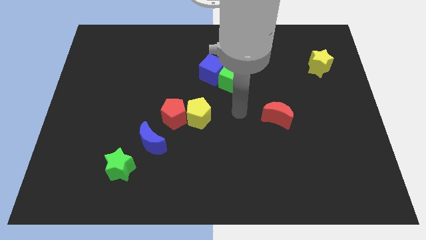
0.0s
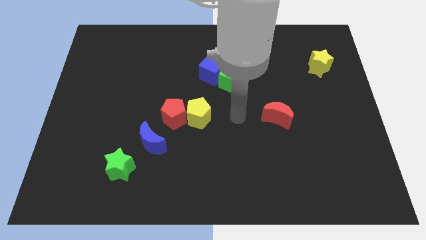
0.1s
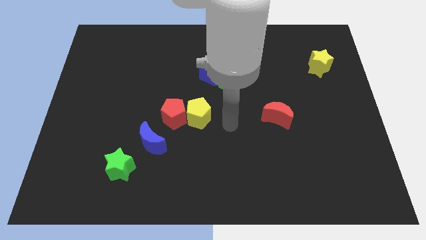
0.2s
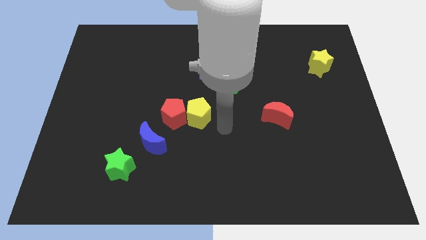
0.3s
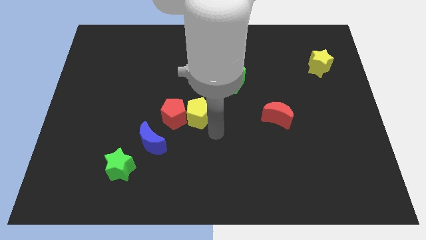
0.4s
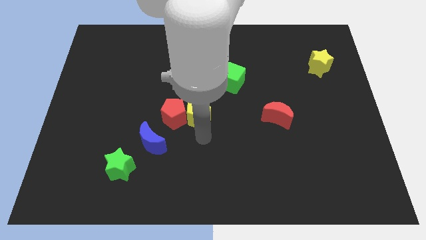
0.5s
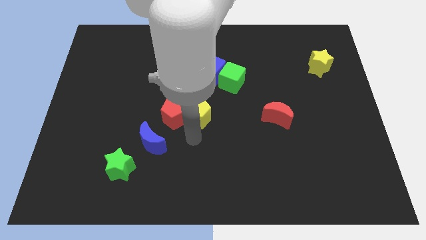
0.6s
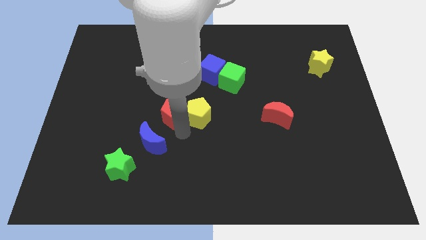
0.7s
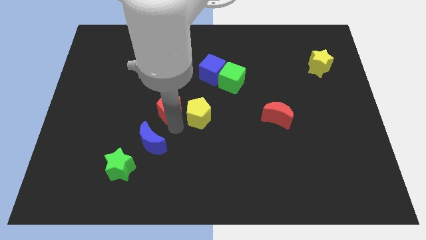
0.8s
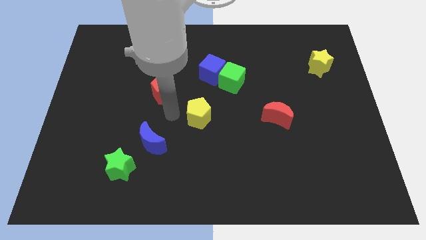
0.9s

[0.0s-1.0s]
move the yellow pentagon away from the red pentagon

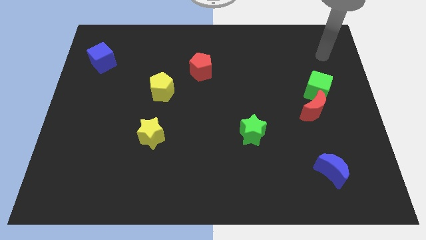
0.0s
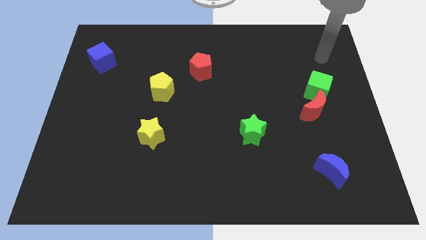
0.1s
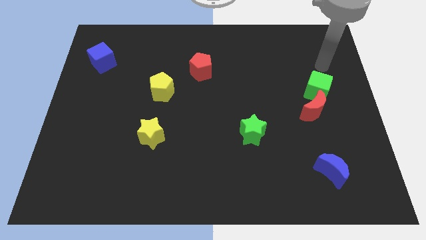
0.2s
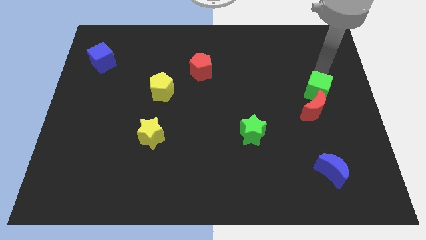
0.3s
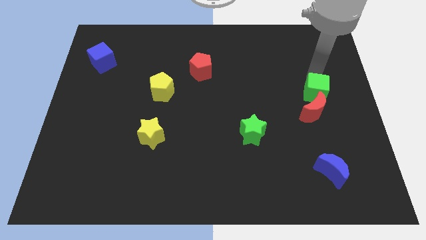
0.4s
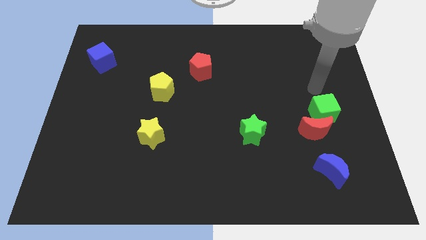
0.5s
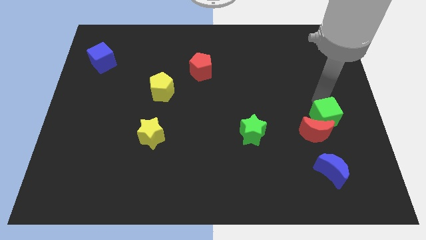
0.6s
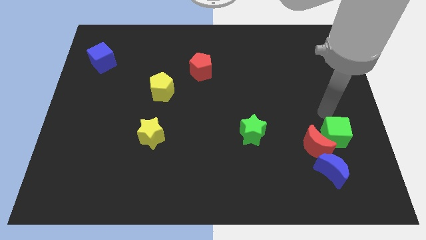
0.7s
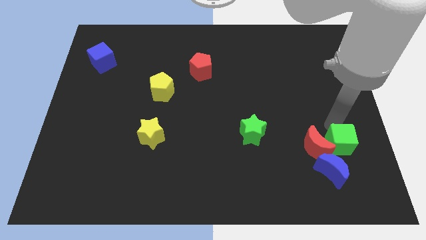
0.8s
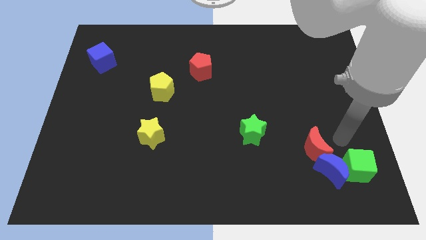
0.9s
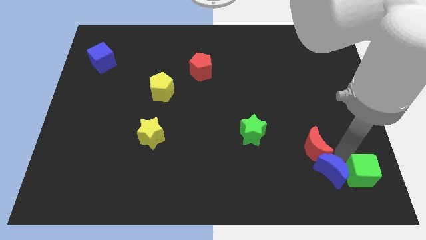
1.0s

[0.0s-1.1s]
move the red moon away from the green cube

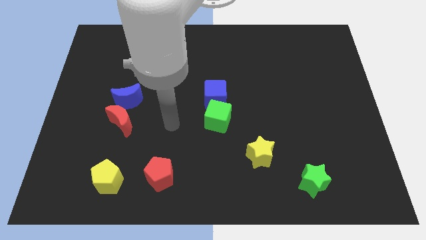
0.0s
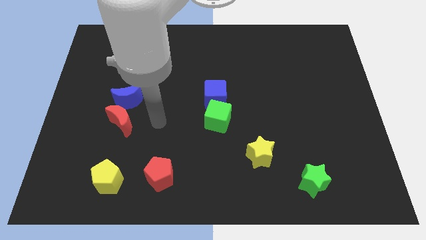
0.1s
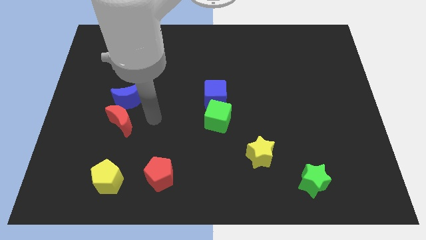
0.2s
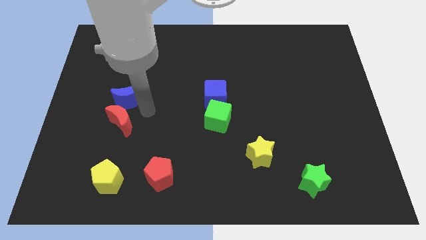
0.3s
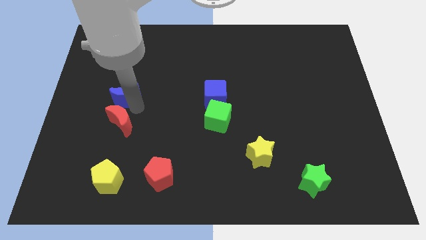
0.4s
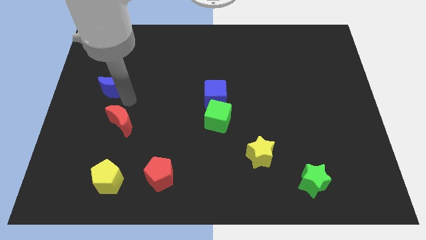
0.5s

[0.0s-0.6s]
move the red moon away from the blue moon

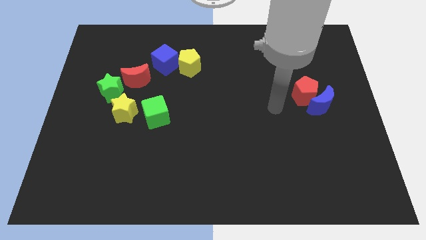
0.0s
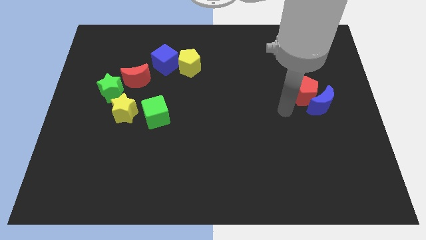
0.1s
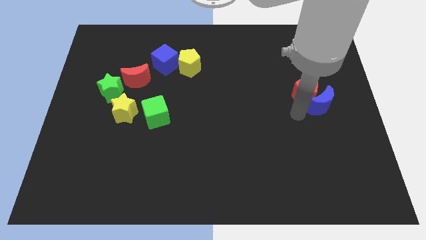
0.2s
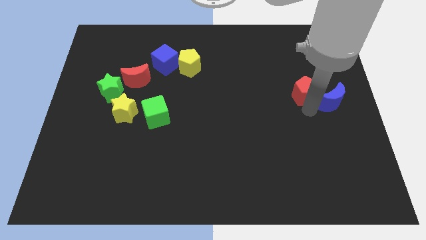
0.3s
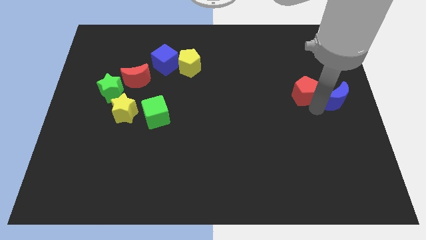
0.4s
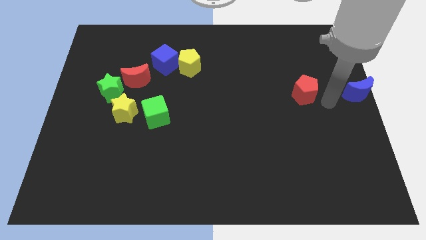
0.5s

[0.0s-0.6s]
separate the red pentagon from the blue moon

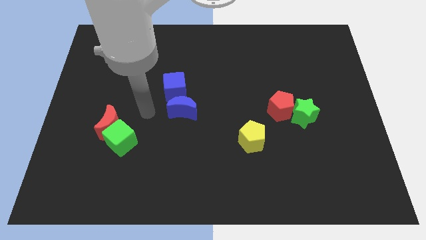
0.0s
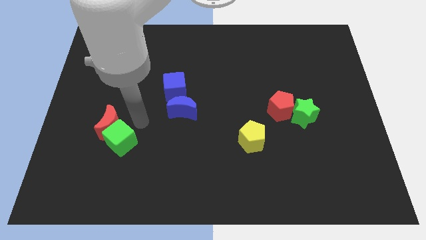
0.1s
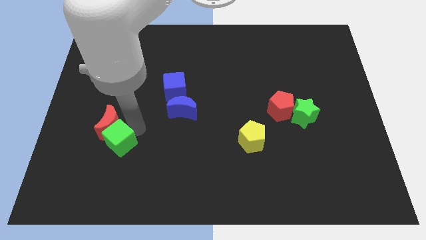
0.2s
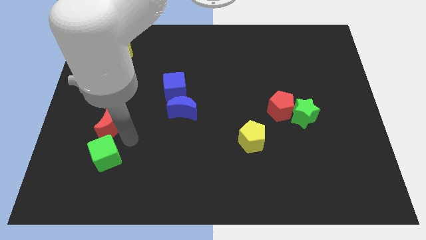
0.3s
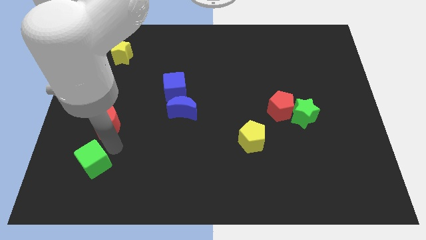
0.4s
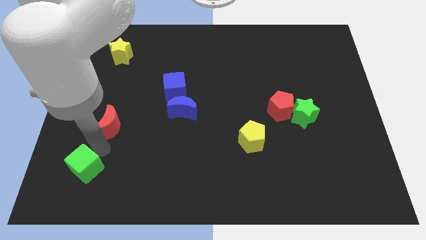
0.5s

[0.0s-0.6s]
separate the red moon from the green cube

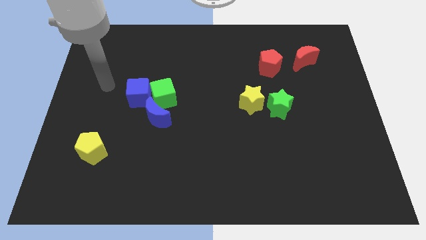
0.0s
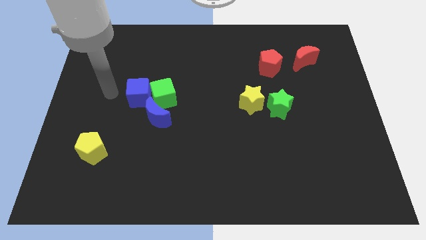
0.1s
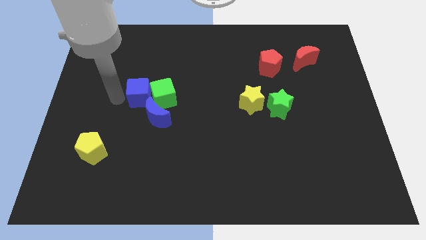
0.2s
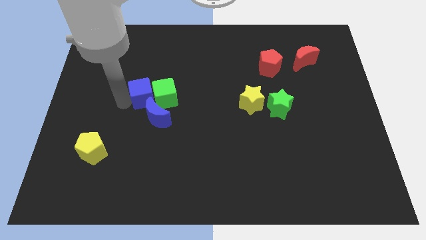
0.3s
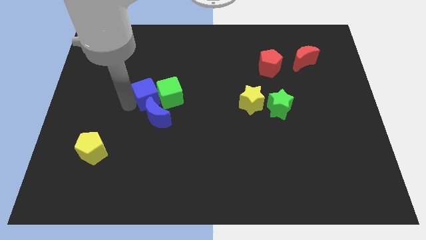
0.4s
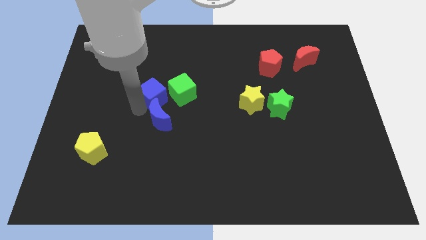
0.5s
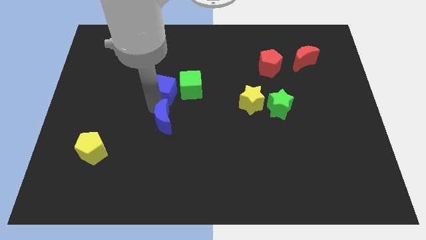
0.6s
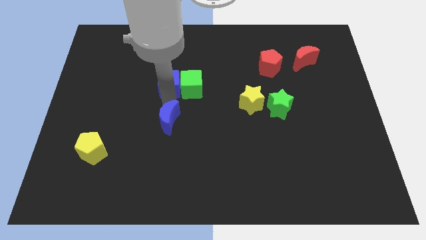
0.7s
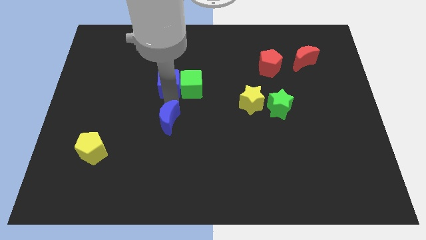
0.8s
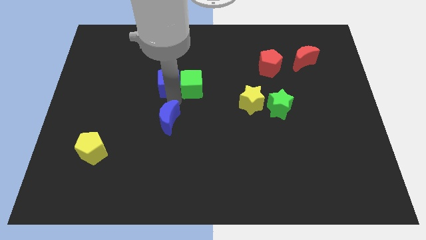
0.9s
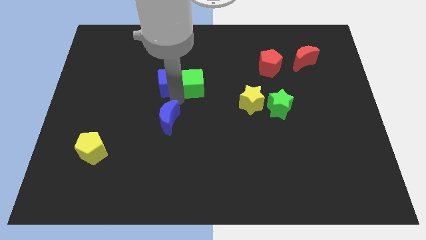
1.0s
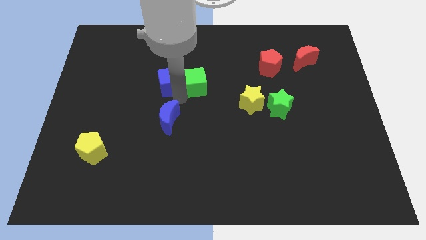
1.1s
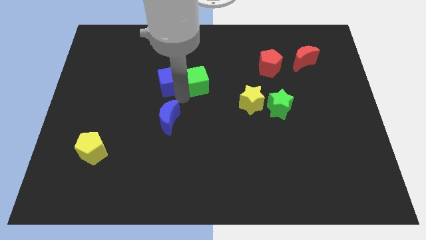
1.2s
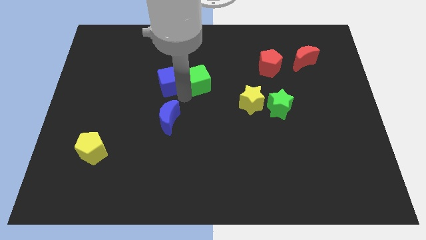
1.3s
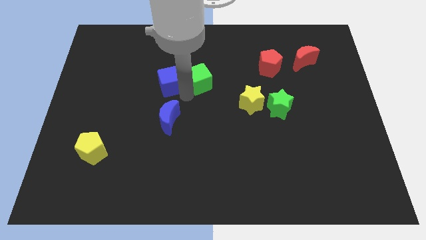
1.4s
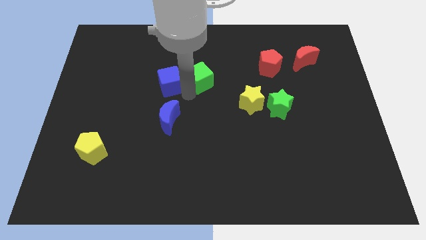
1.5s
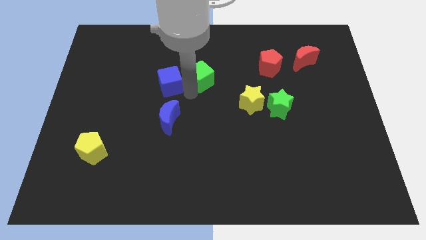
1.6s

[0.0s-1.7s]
pull the green cube apart from the blue cube and blue moon

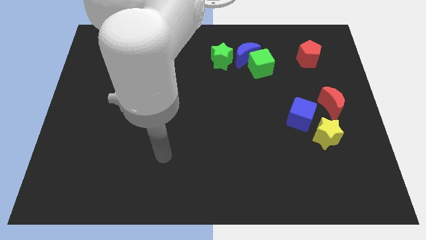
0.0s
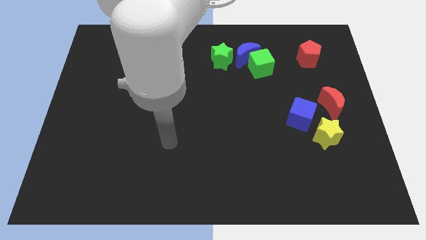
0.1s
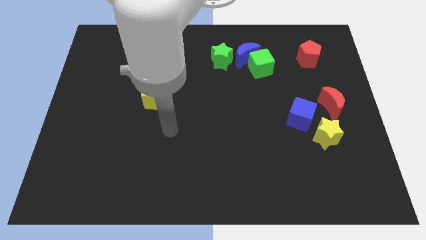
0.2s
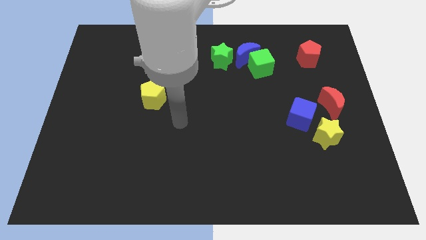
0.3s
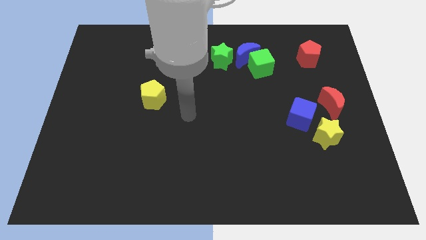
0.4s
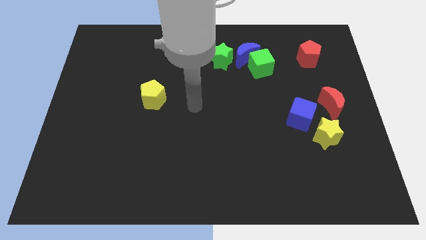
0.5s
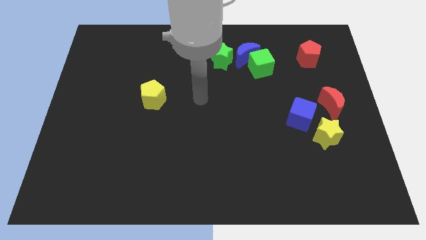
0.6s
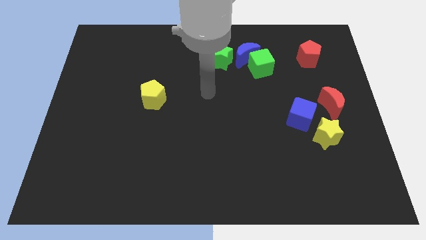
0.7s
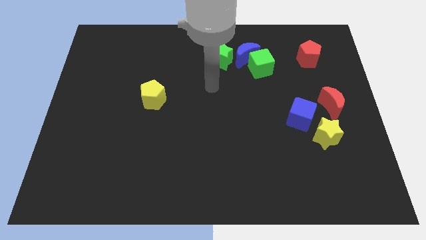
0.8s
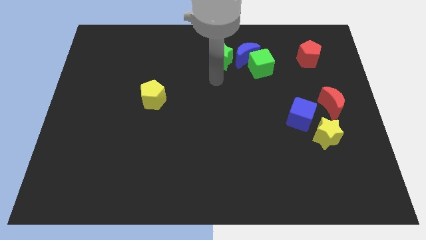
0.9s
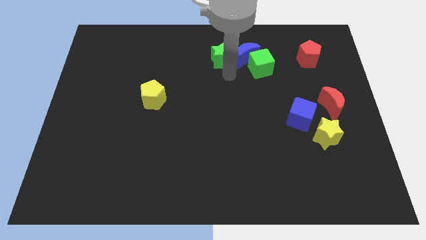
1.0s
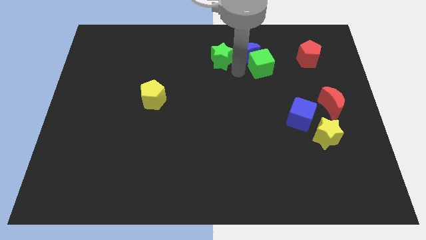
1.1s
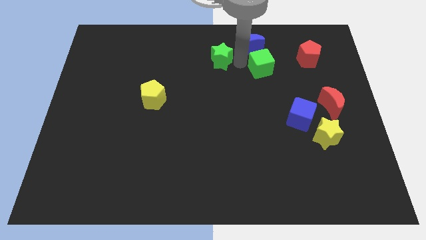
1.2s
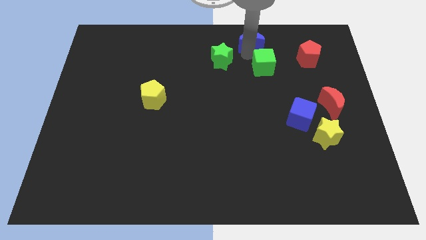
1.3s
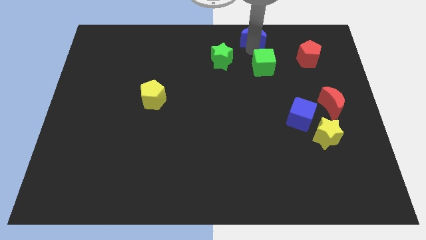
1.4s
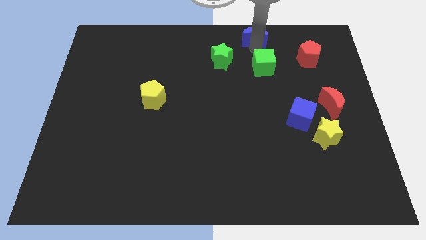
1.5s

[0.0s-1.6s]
move the green cube away from the blue moon

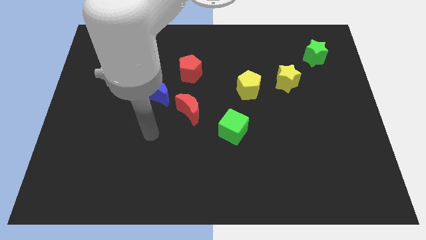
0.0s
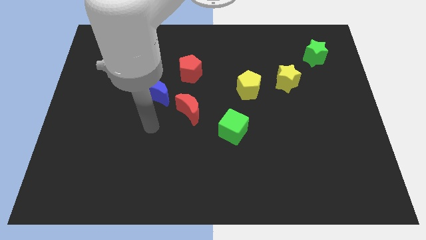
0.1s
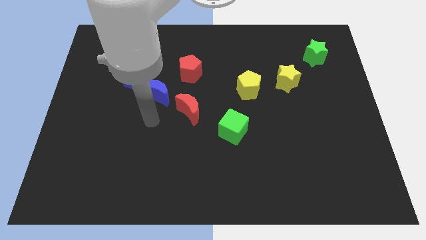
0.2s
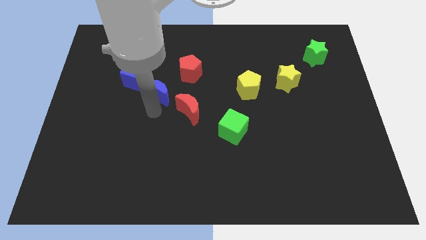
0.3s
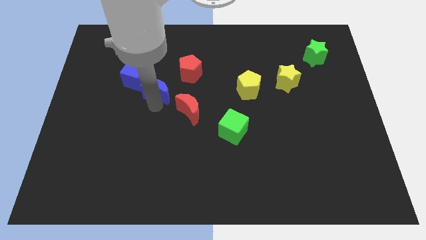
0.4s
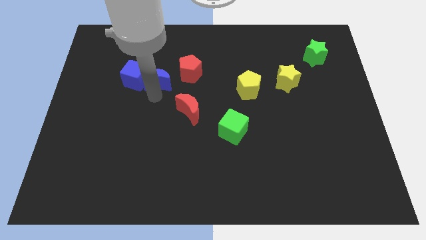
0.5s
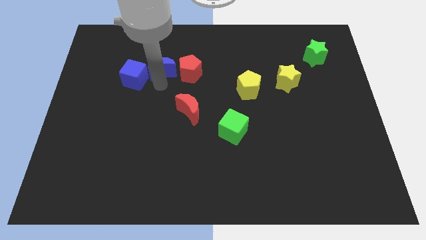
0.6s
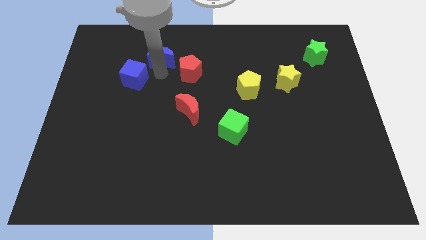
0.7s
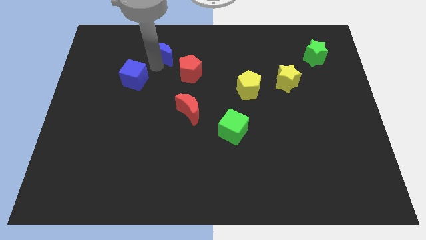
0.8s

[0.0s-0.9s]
move the blue cube away from the blue moon

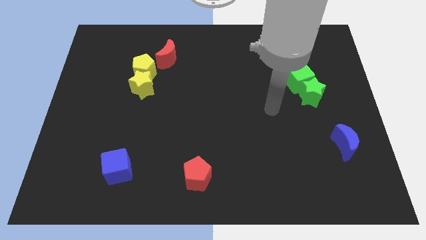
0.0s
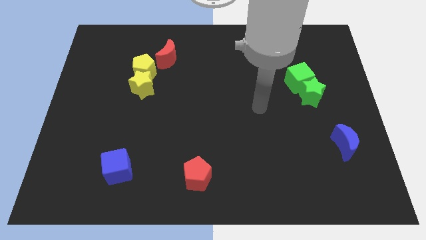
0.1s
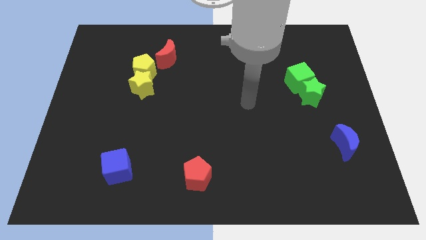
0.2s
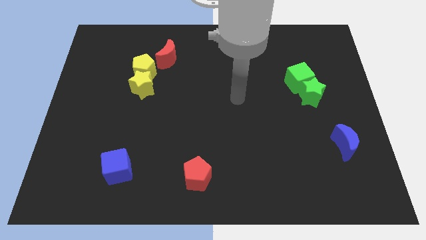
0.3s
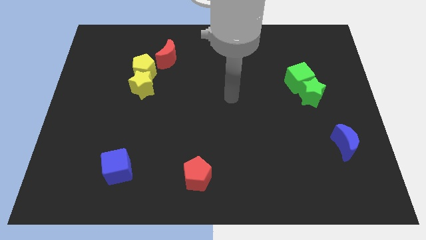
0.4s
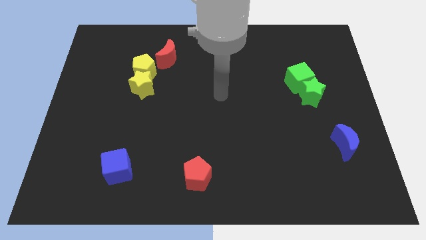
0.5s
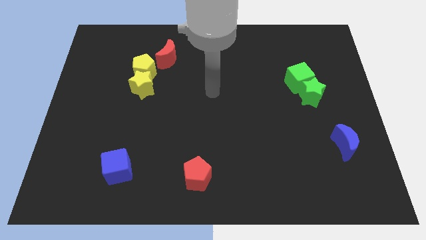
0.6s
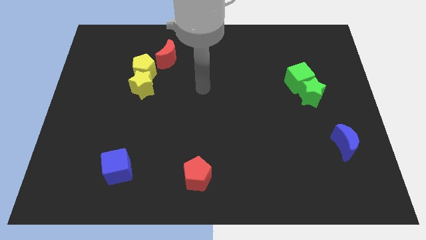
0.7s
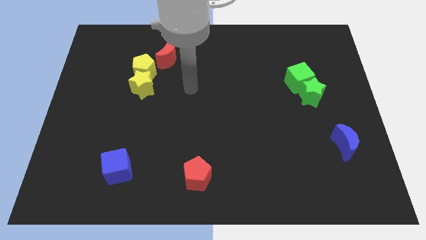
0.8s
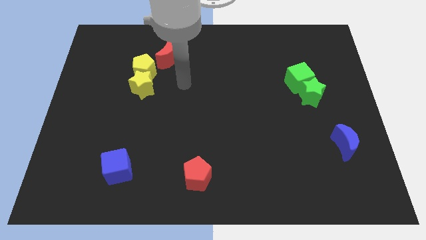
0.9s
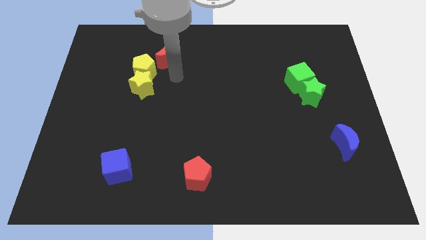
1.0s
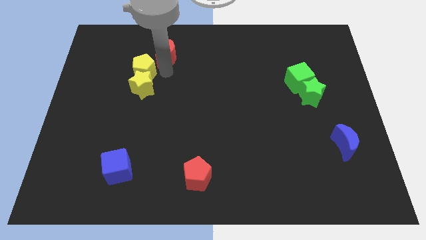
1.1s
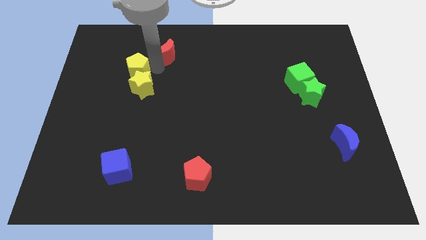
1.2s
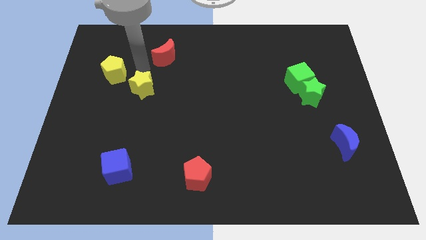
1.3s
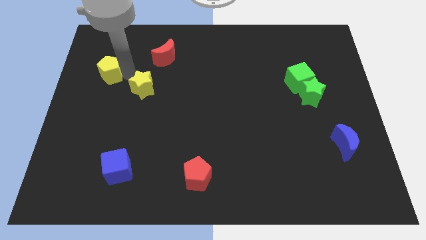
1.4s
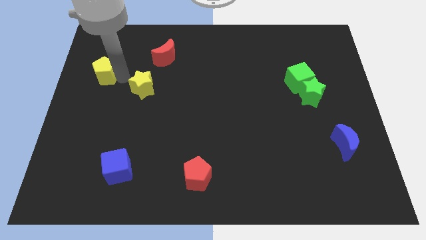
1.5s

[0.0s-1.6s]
pull the yellow star apart from the yellow pentagon
